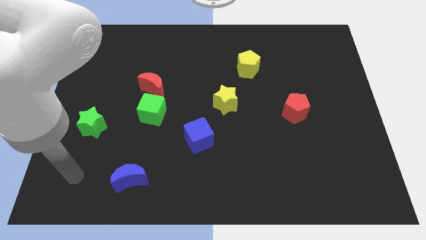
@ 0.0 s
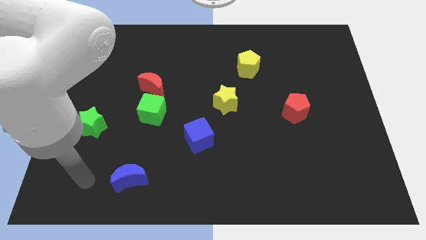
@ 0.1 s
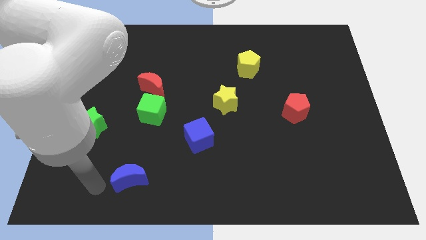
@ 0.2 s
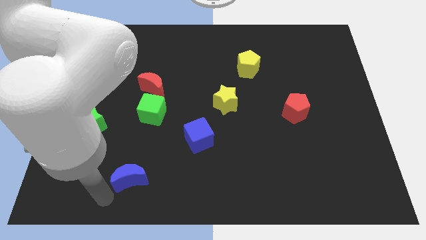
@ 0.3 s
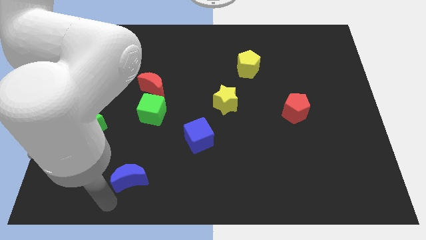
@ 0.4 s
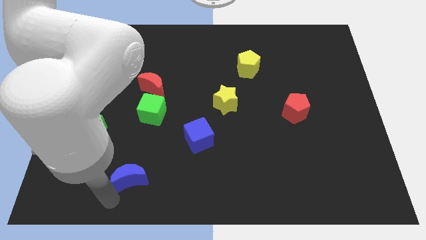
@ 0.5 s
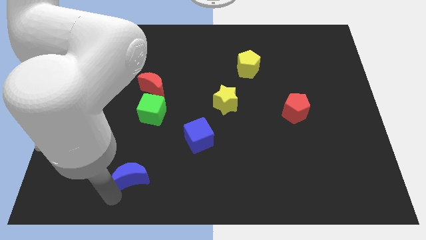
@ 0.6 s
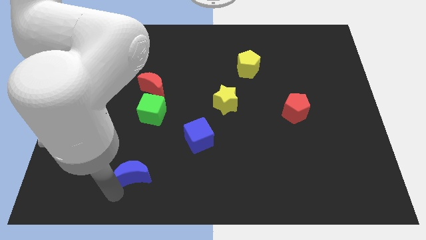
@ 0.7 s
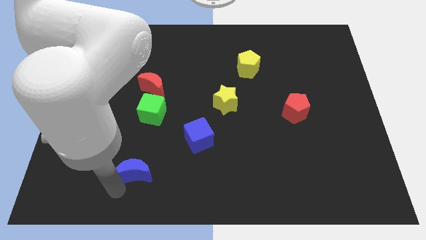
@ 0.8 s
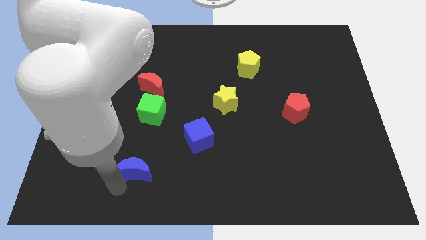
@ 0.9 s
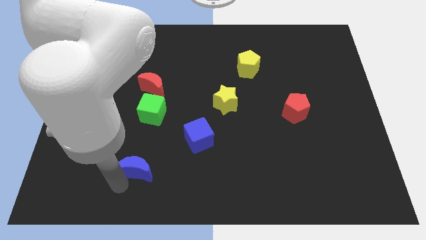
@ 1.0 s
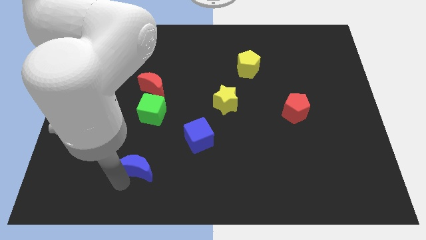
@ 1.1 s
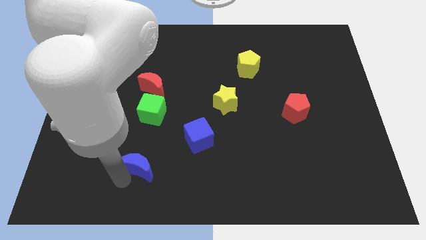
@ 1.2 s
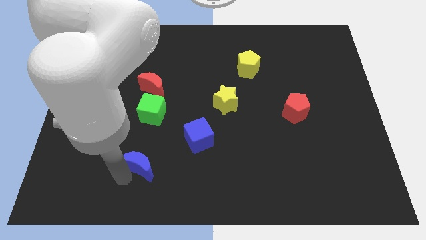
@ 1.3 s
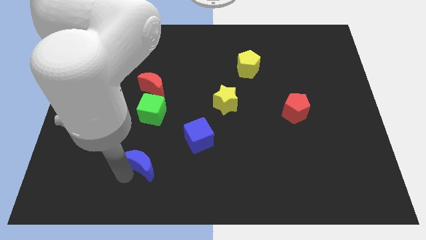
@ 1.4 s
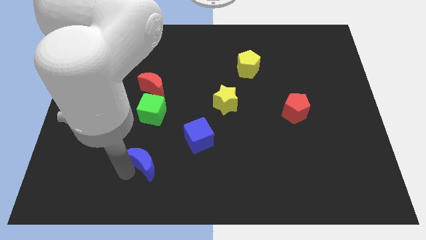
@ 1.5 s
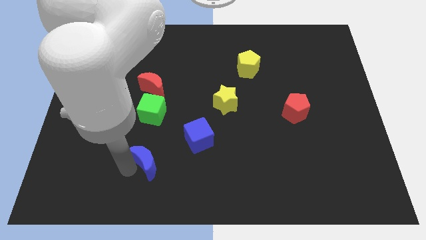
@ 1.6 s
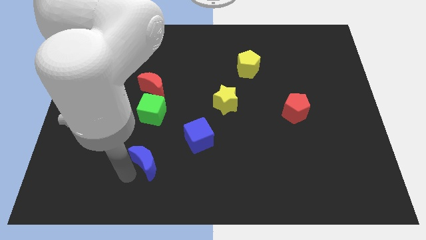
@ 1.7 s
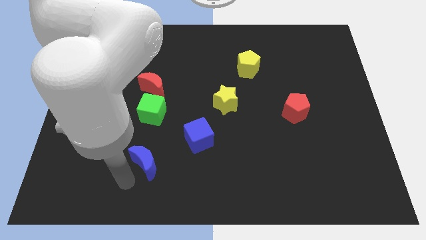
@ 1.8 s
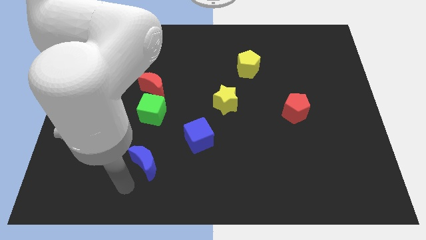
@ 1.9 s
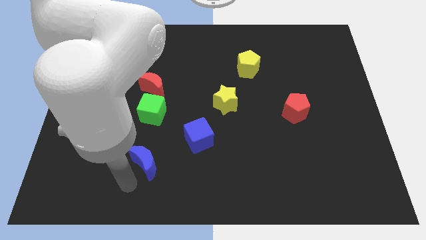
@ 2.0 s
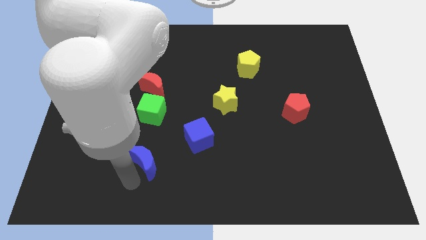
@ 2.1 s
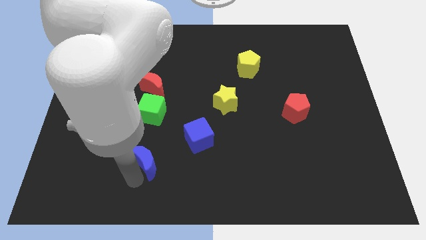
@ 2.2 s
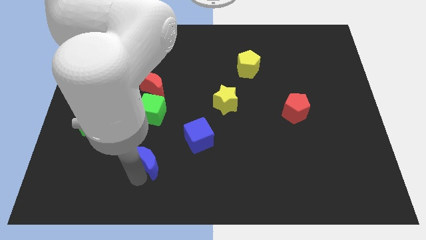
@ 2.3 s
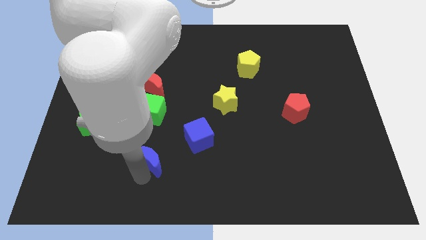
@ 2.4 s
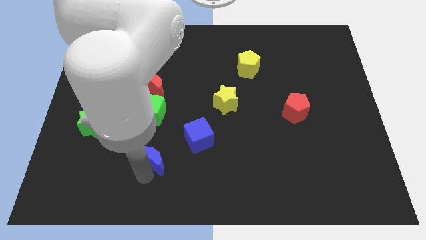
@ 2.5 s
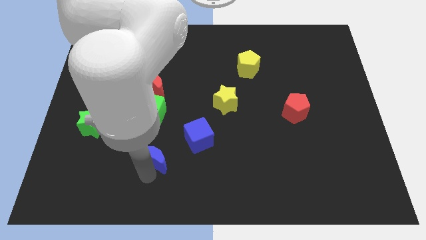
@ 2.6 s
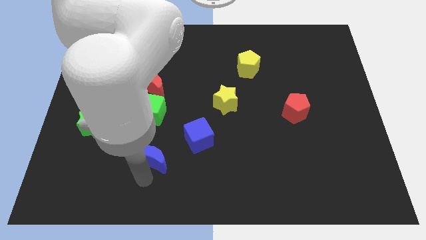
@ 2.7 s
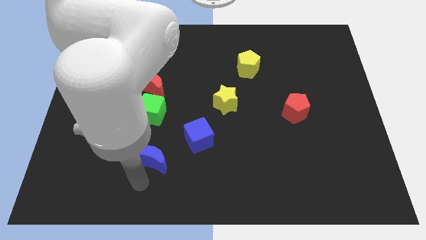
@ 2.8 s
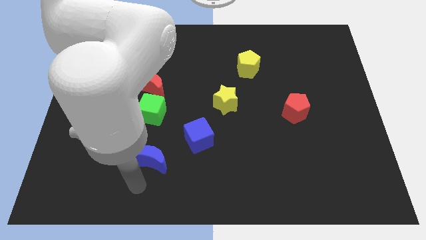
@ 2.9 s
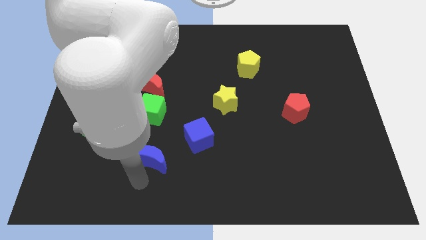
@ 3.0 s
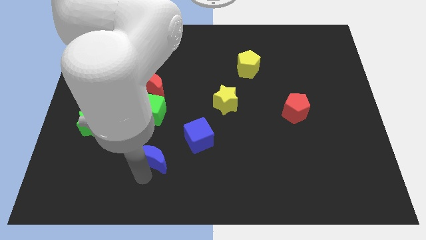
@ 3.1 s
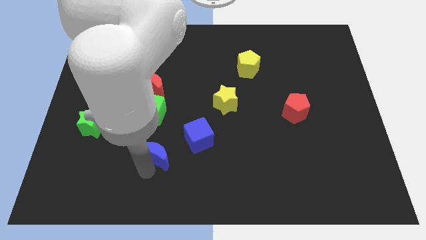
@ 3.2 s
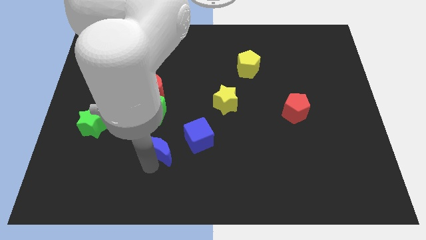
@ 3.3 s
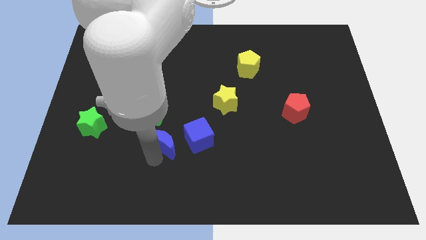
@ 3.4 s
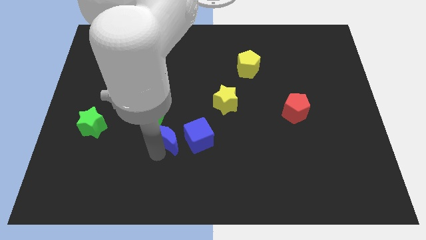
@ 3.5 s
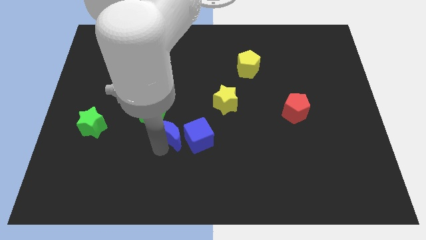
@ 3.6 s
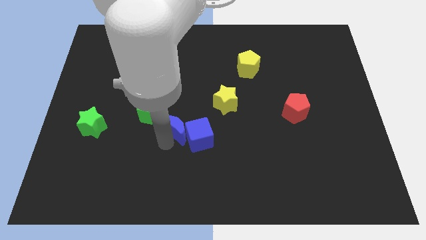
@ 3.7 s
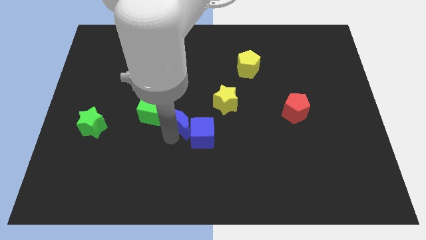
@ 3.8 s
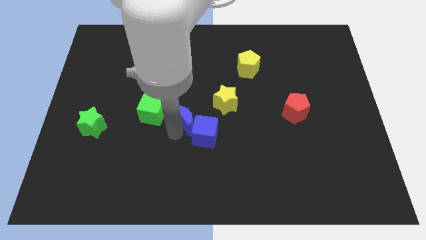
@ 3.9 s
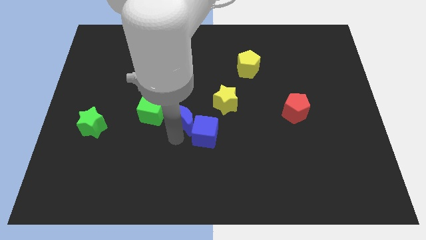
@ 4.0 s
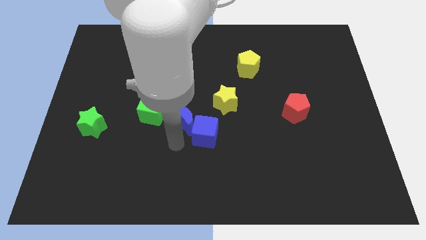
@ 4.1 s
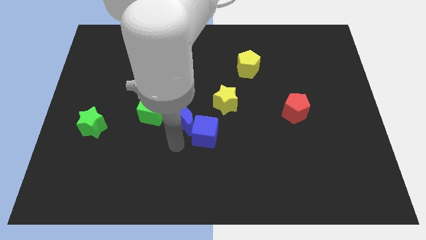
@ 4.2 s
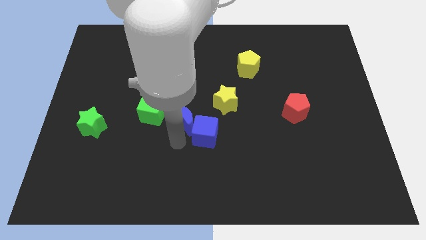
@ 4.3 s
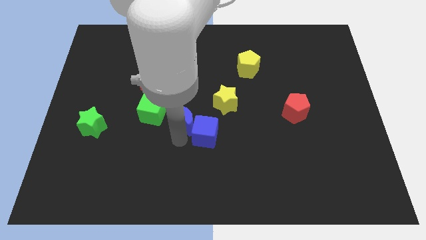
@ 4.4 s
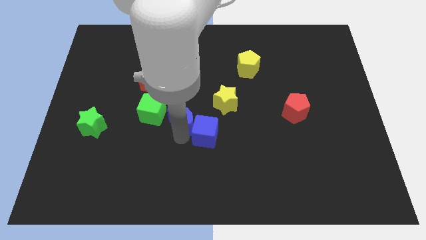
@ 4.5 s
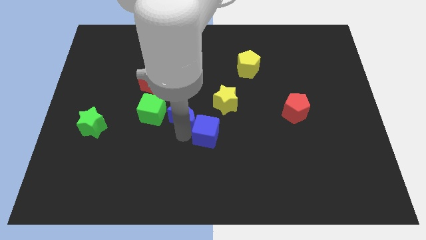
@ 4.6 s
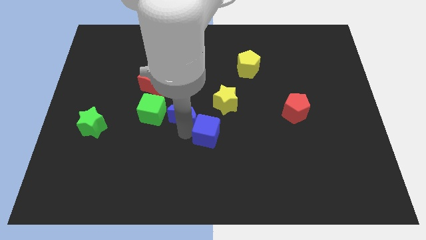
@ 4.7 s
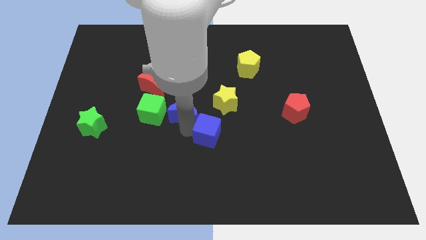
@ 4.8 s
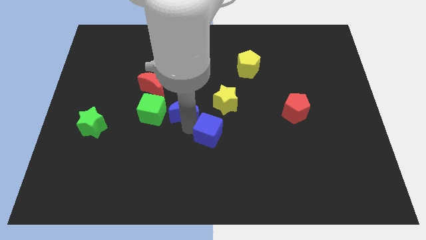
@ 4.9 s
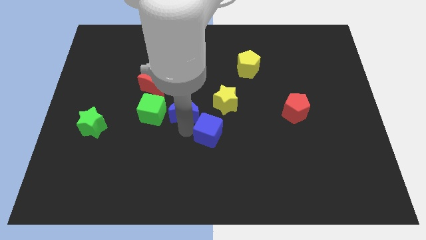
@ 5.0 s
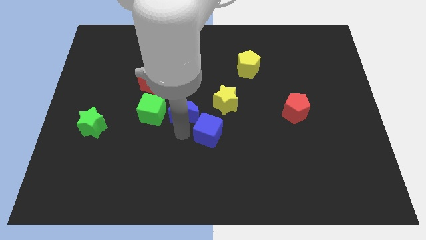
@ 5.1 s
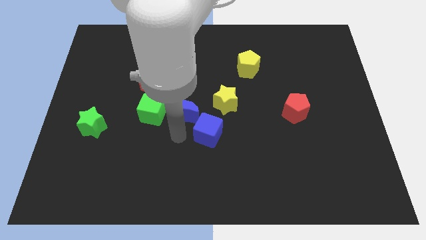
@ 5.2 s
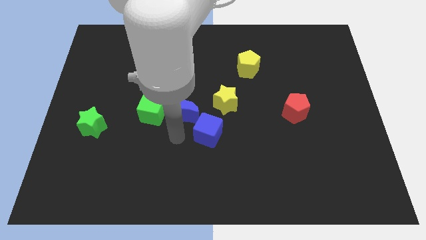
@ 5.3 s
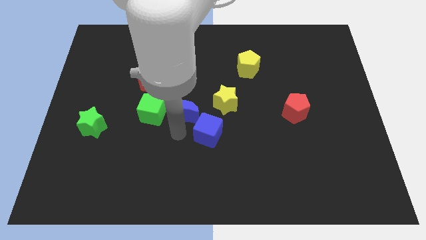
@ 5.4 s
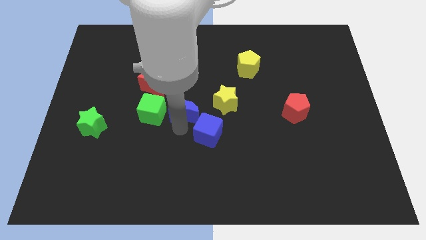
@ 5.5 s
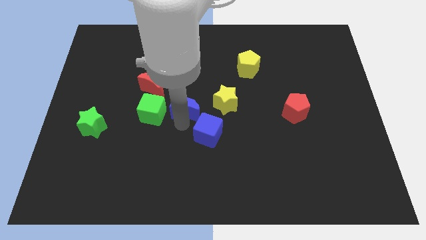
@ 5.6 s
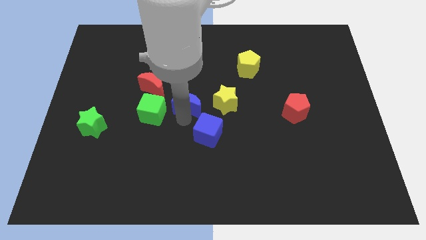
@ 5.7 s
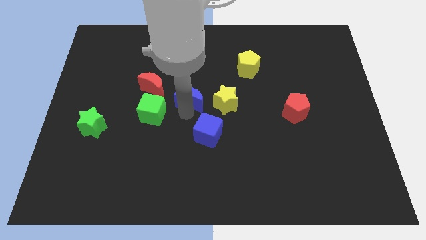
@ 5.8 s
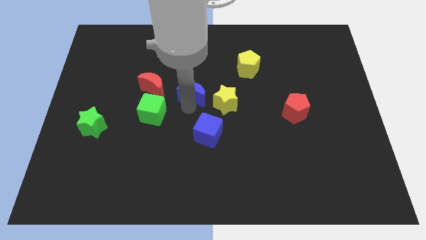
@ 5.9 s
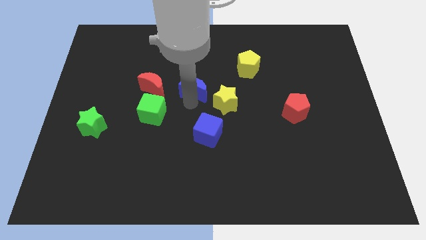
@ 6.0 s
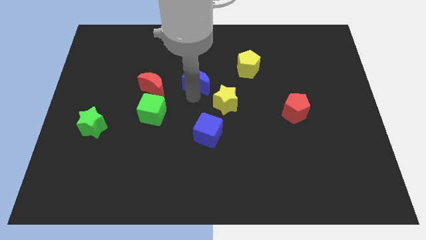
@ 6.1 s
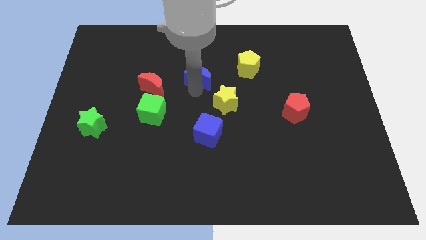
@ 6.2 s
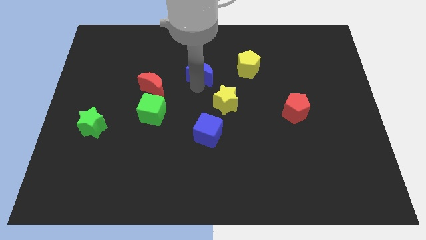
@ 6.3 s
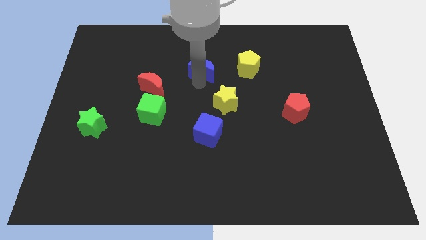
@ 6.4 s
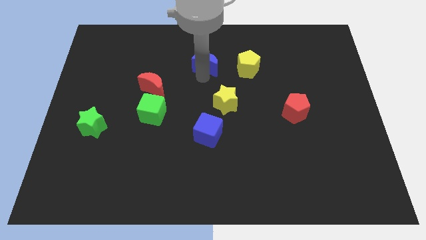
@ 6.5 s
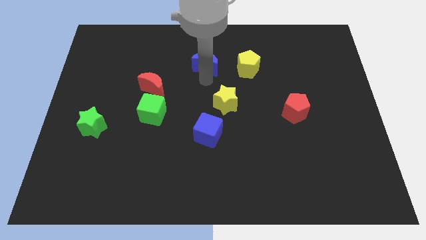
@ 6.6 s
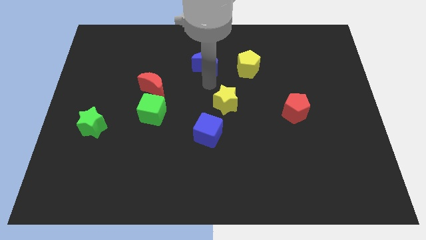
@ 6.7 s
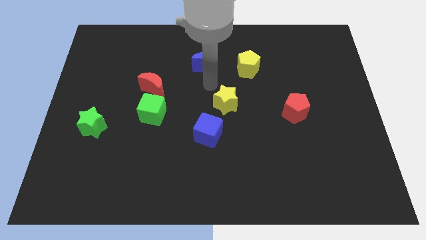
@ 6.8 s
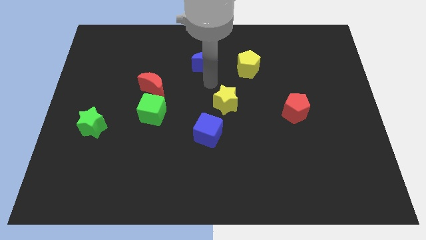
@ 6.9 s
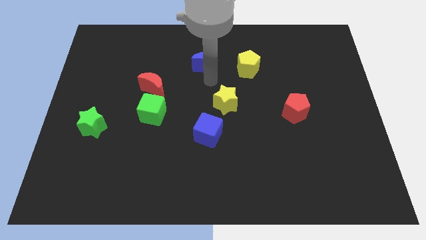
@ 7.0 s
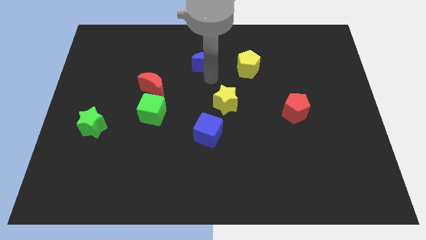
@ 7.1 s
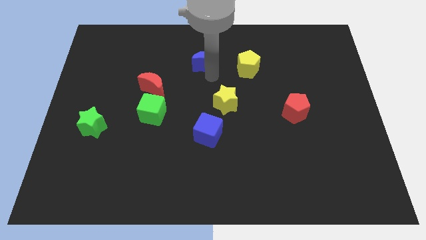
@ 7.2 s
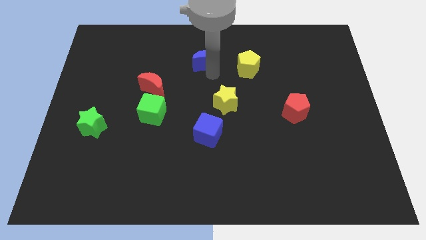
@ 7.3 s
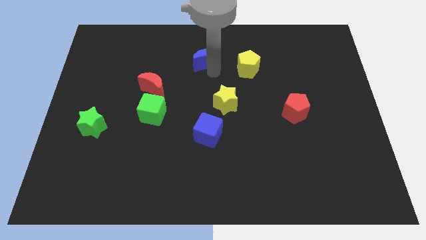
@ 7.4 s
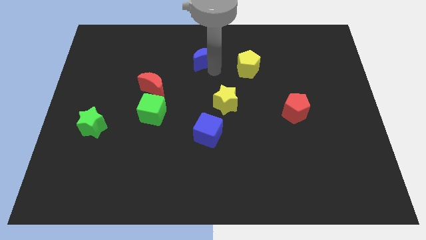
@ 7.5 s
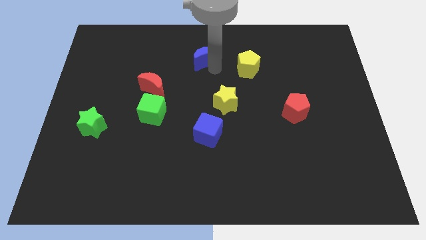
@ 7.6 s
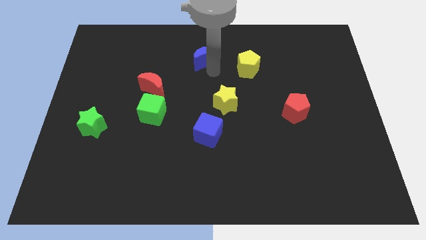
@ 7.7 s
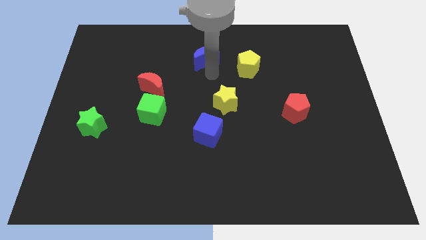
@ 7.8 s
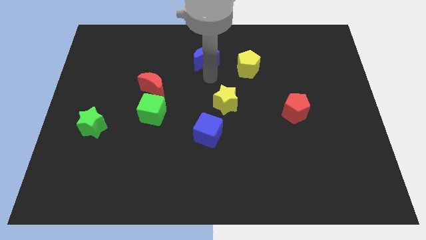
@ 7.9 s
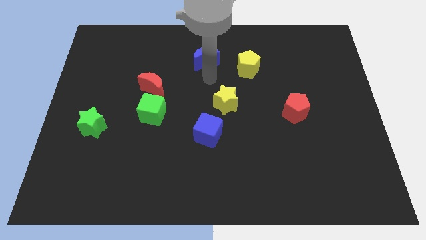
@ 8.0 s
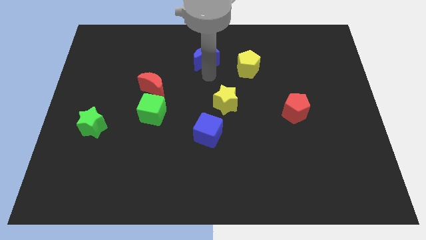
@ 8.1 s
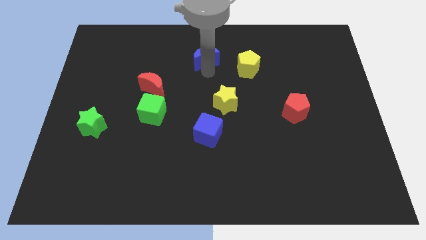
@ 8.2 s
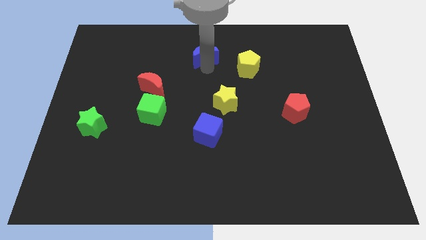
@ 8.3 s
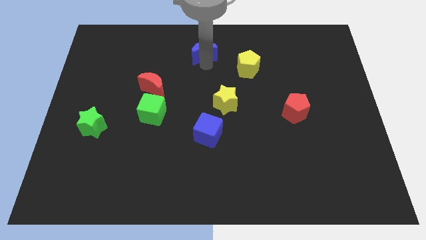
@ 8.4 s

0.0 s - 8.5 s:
move the blue moon to the top
